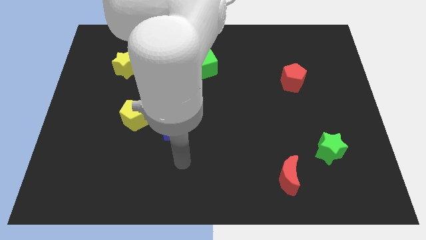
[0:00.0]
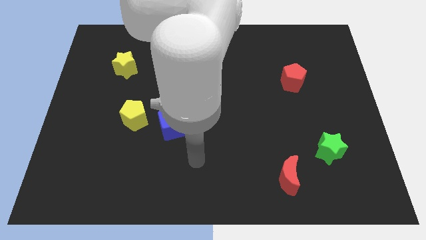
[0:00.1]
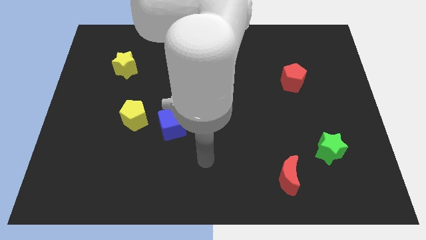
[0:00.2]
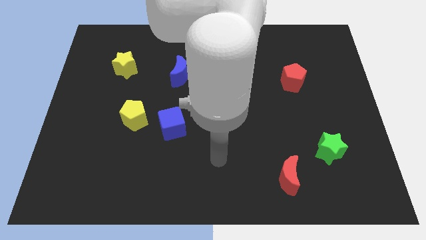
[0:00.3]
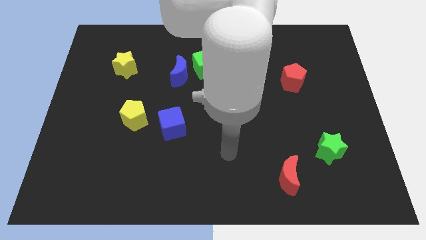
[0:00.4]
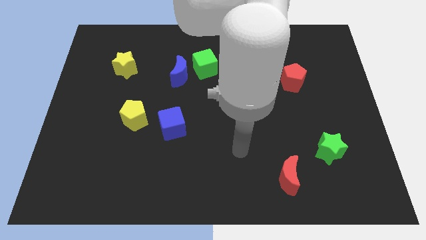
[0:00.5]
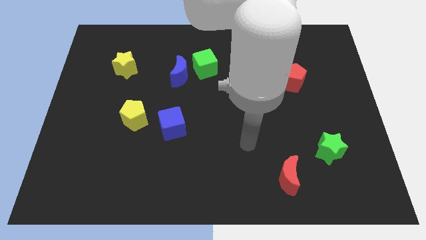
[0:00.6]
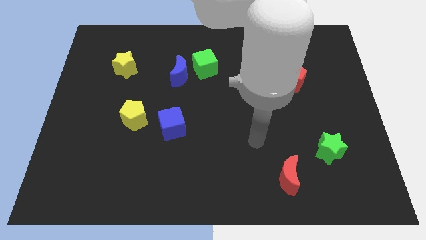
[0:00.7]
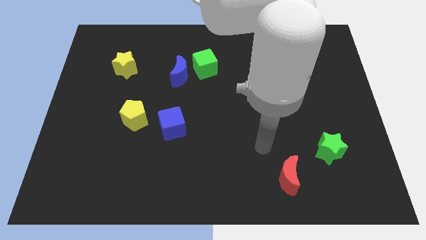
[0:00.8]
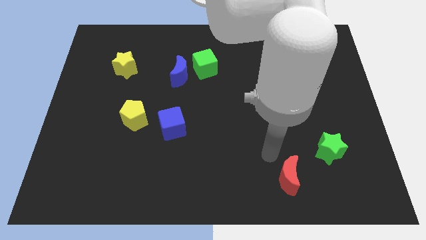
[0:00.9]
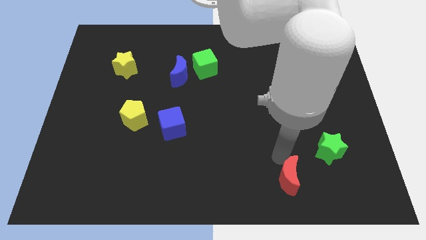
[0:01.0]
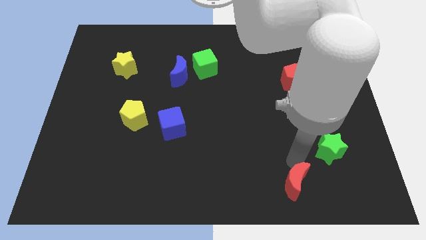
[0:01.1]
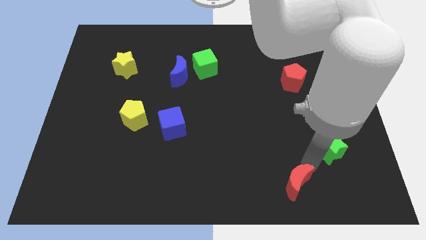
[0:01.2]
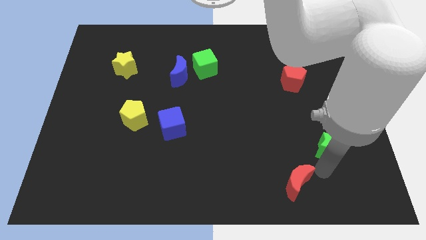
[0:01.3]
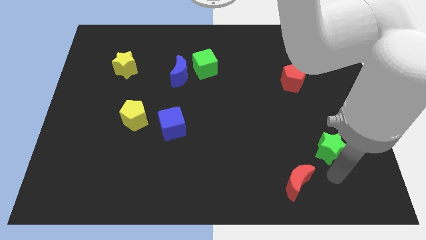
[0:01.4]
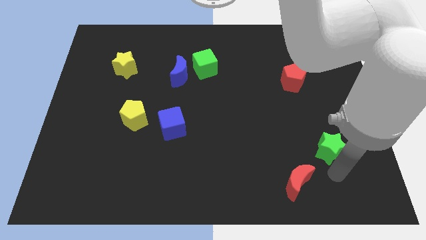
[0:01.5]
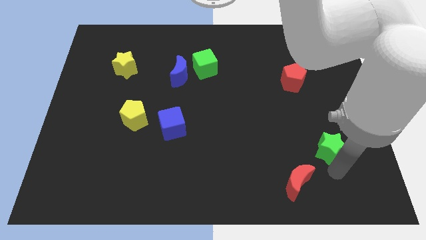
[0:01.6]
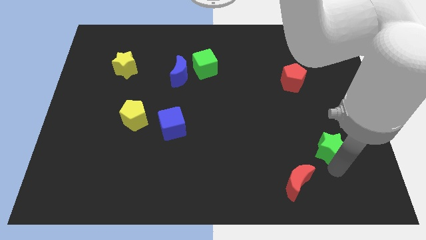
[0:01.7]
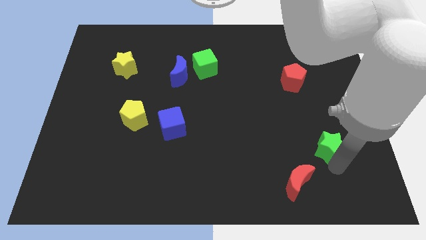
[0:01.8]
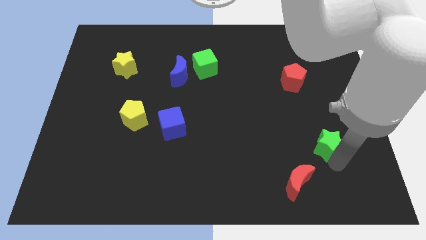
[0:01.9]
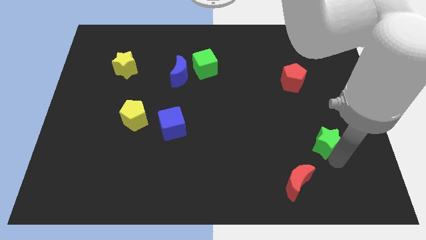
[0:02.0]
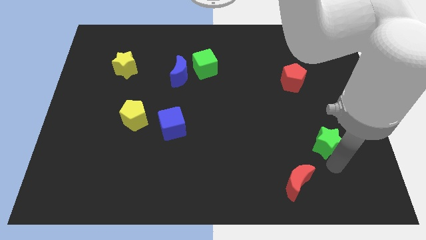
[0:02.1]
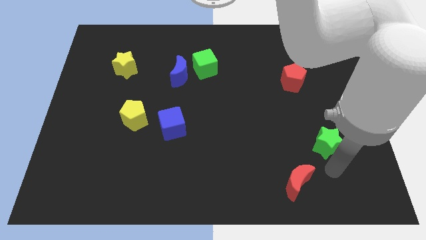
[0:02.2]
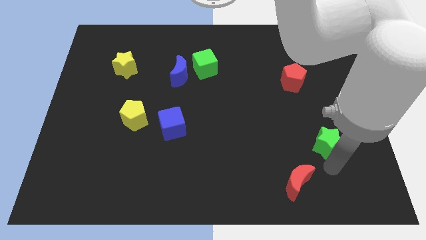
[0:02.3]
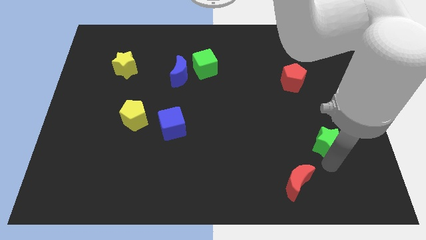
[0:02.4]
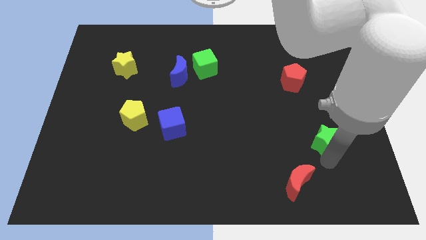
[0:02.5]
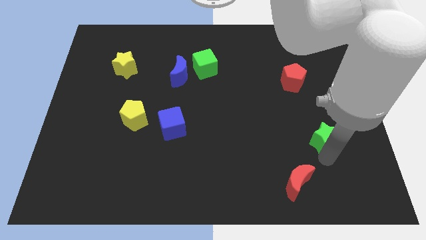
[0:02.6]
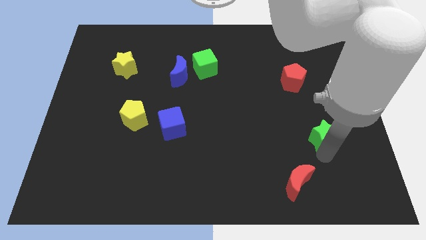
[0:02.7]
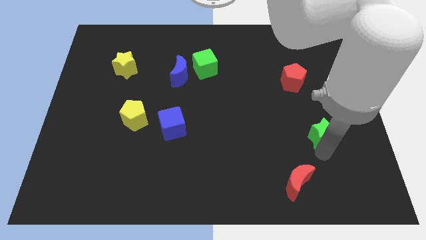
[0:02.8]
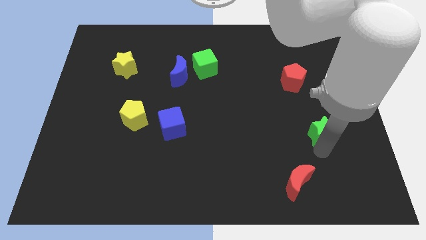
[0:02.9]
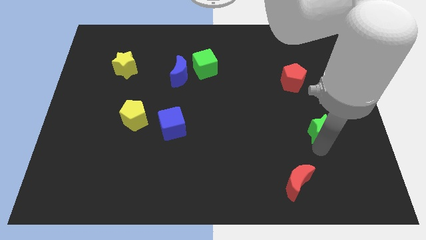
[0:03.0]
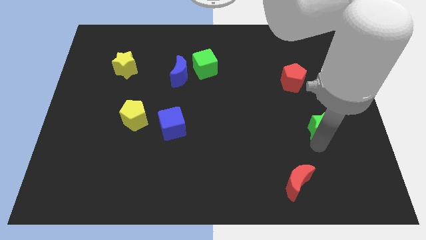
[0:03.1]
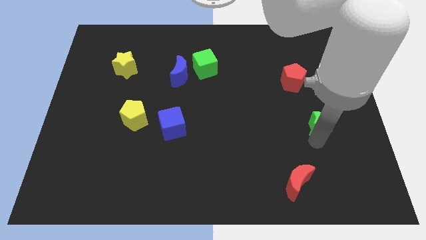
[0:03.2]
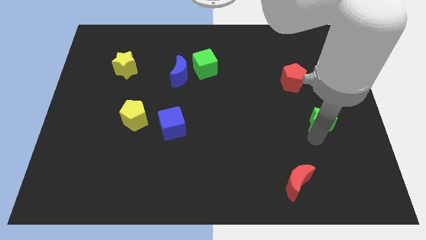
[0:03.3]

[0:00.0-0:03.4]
push the green star up a bit

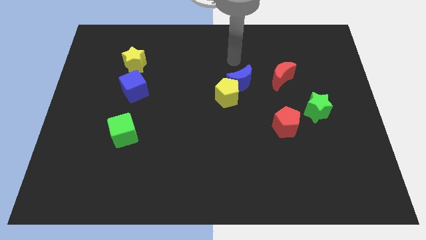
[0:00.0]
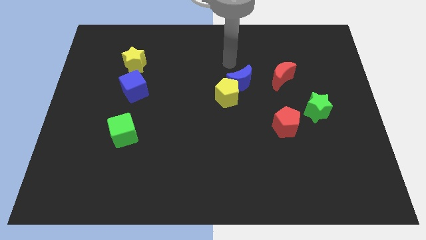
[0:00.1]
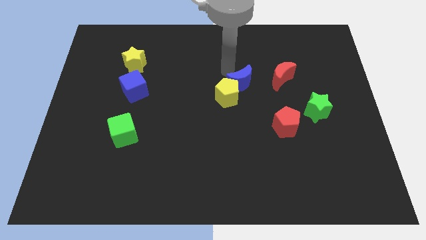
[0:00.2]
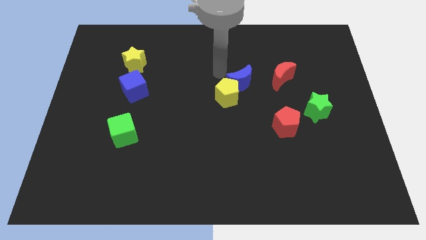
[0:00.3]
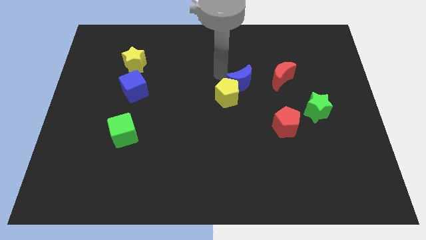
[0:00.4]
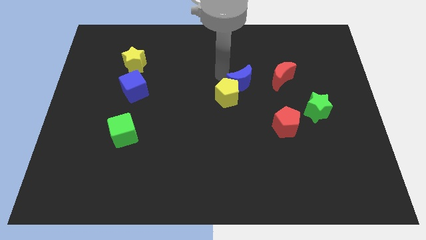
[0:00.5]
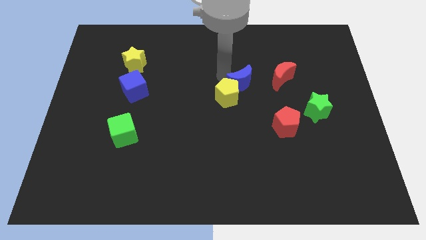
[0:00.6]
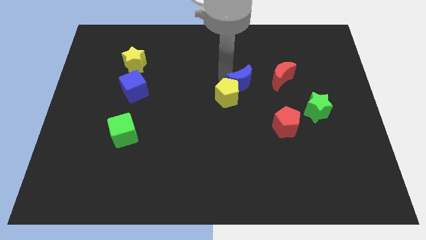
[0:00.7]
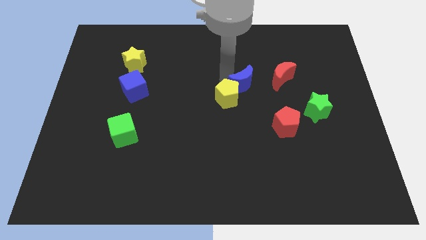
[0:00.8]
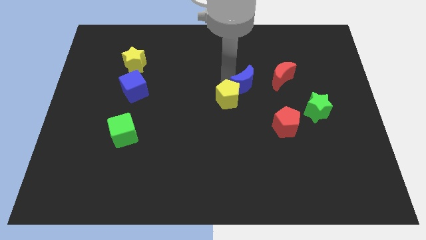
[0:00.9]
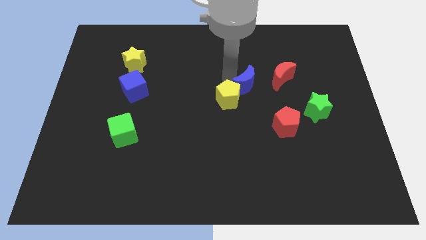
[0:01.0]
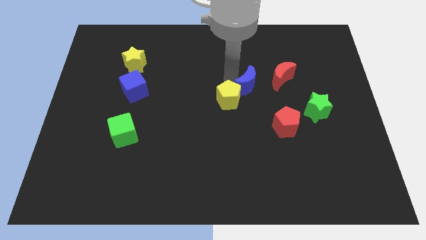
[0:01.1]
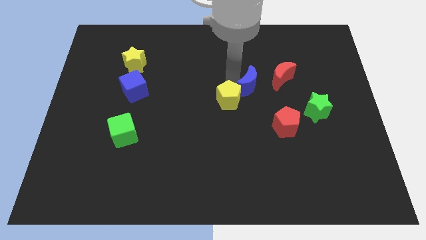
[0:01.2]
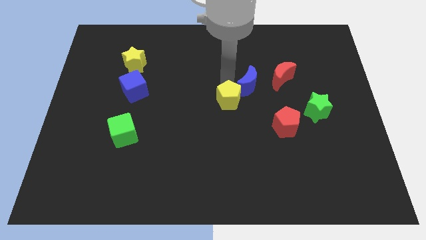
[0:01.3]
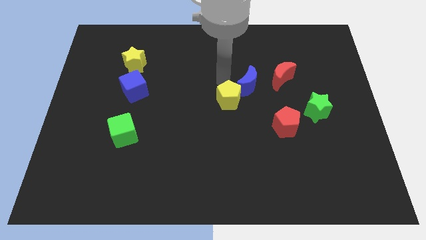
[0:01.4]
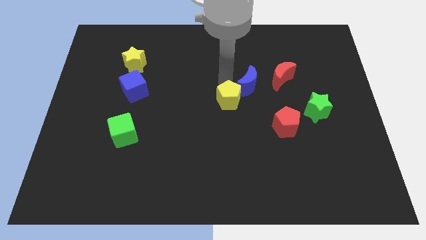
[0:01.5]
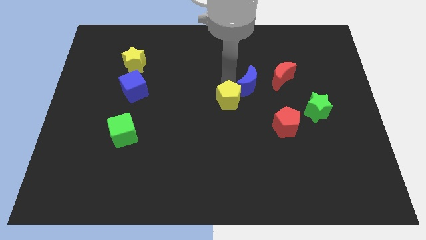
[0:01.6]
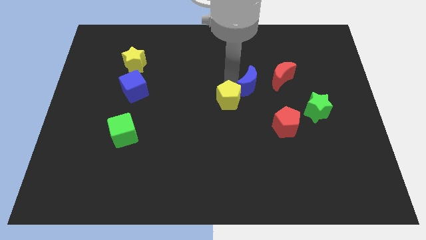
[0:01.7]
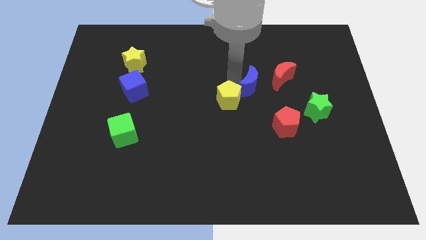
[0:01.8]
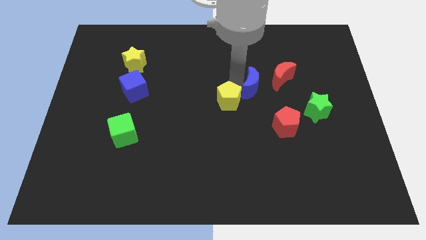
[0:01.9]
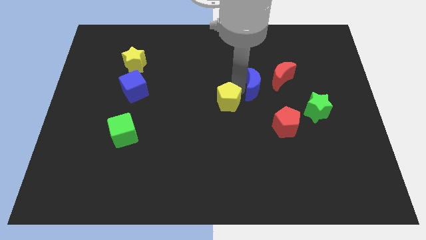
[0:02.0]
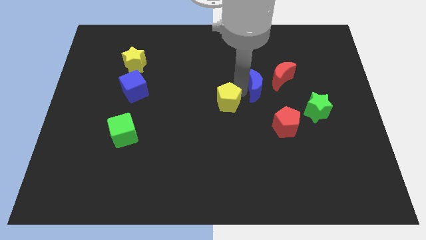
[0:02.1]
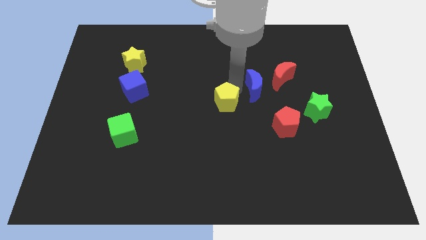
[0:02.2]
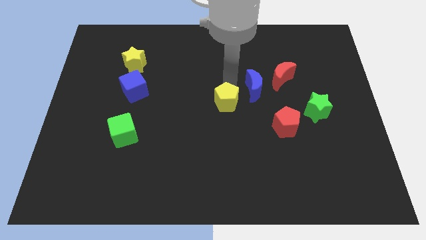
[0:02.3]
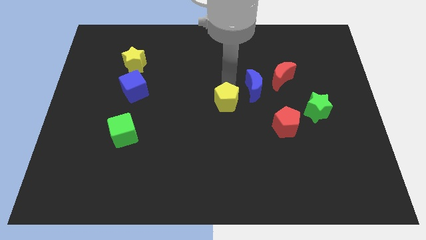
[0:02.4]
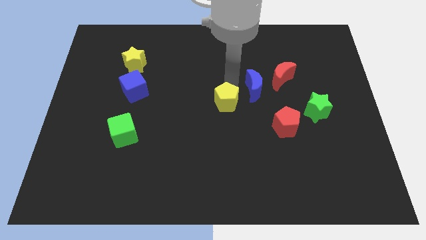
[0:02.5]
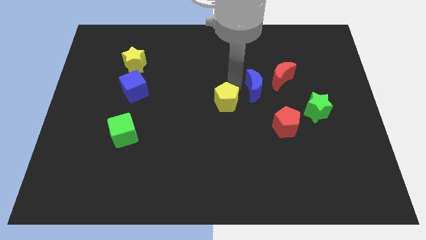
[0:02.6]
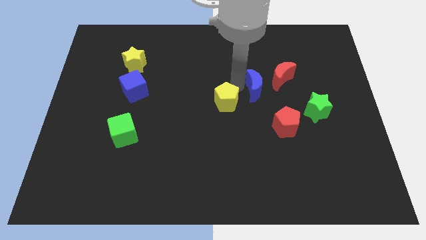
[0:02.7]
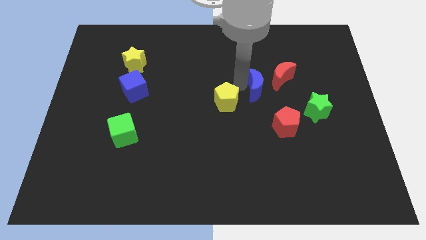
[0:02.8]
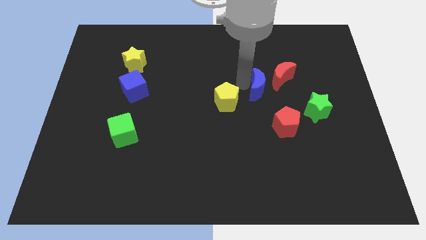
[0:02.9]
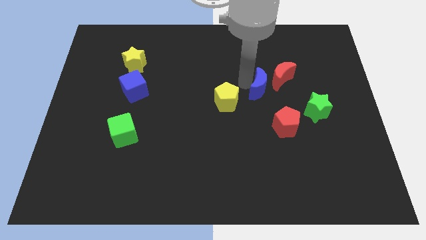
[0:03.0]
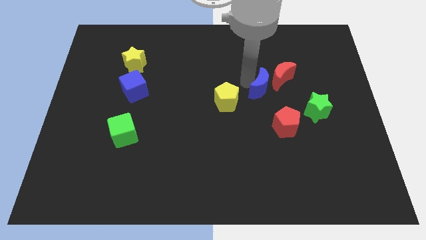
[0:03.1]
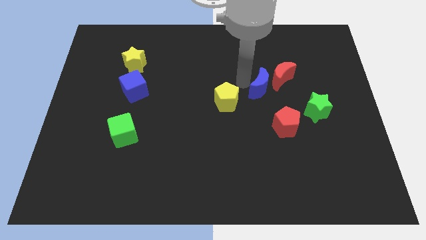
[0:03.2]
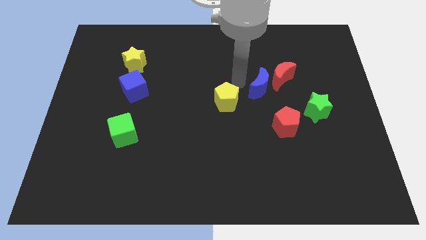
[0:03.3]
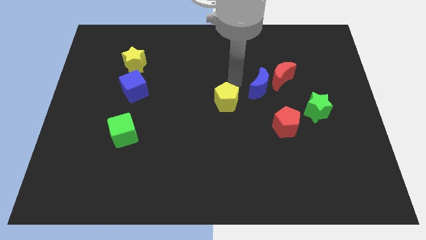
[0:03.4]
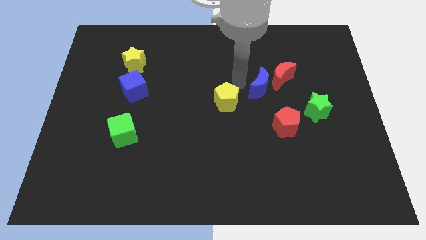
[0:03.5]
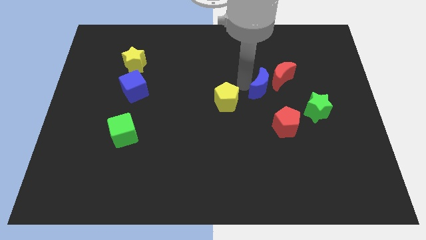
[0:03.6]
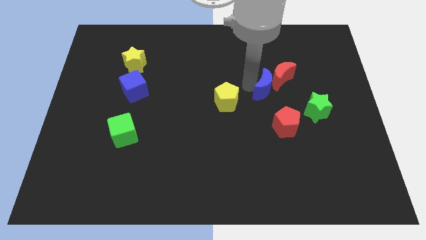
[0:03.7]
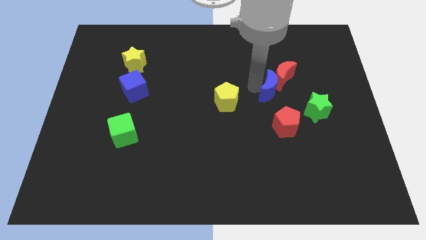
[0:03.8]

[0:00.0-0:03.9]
slightly slide the blue moon to the right

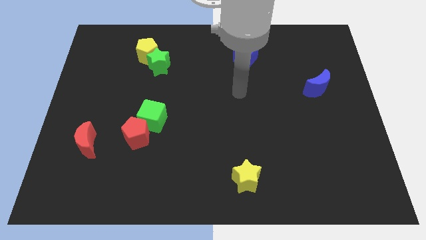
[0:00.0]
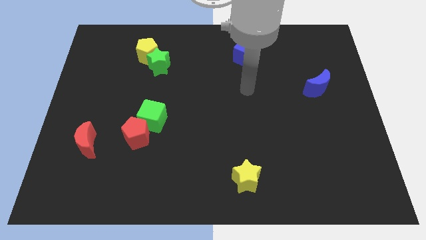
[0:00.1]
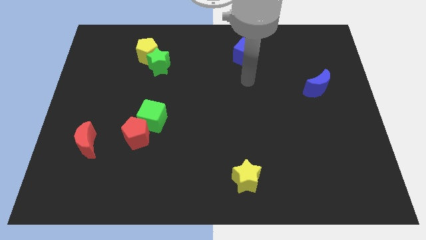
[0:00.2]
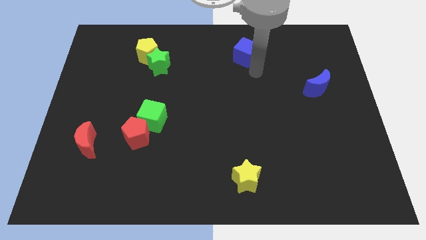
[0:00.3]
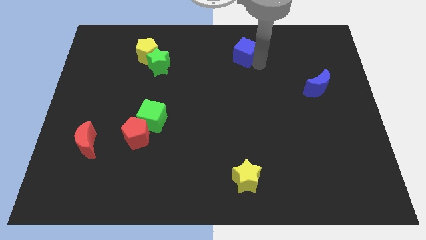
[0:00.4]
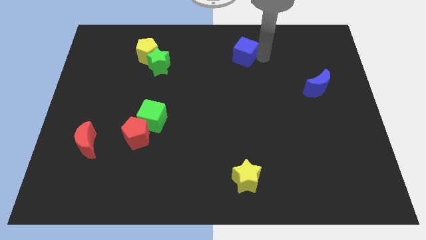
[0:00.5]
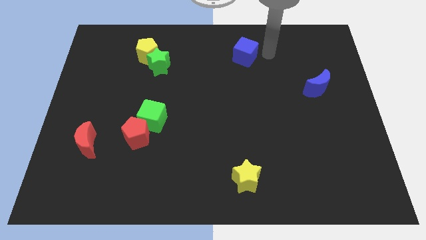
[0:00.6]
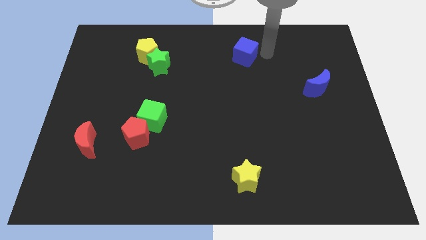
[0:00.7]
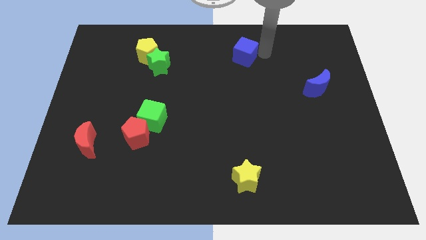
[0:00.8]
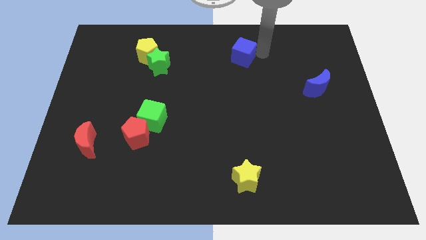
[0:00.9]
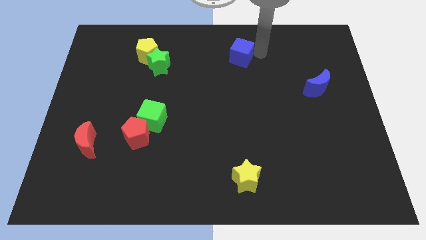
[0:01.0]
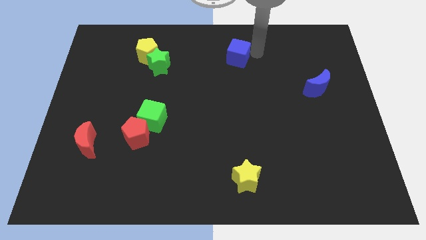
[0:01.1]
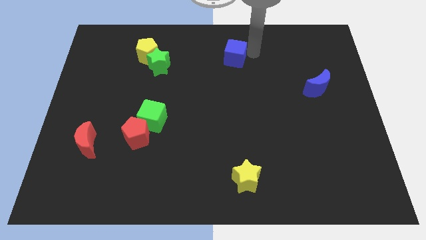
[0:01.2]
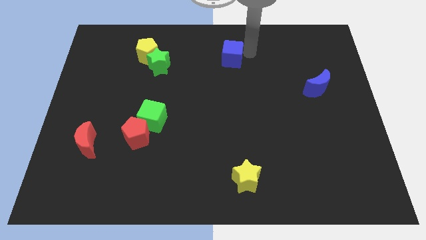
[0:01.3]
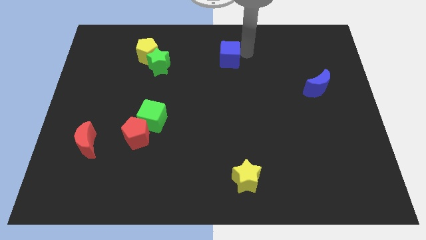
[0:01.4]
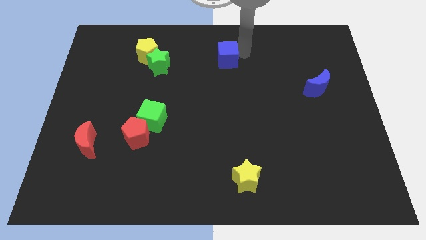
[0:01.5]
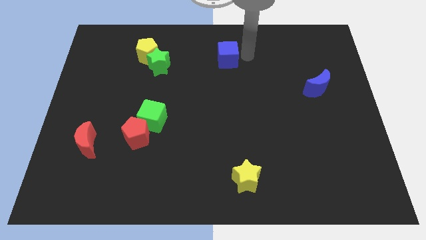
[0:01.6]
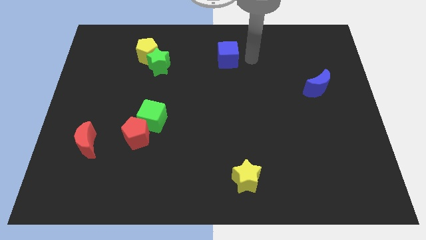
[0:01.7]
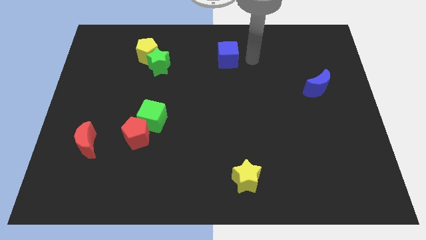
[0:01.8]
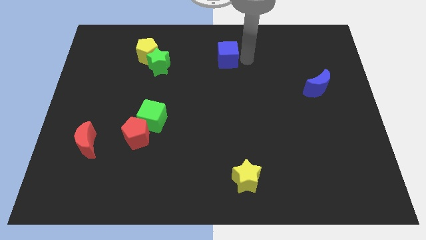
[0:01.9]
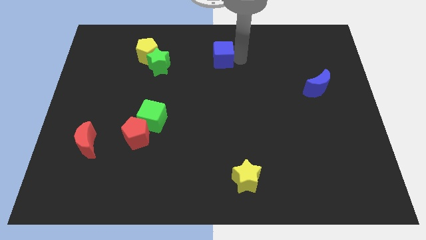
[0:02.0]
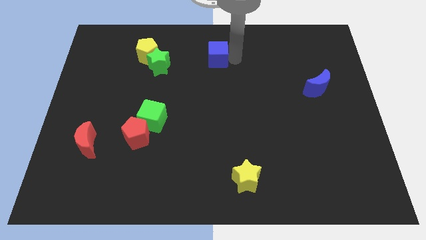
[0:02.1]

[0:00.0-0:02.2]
push the blue cube a little to the left
